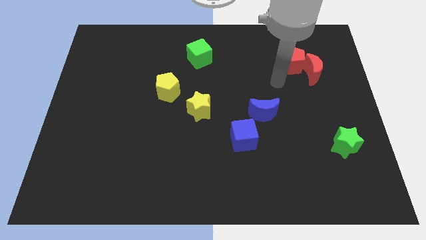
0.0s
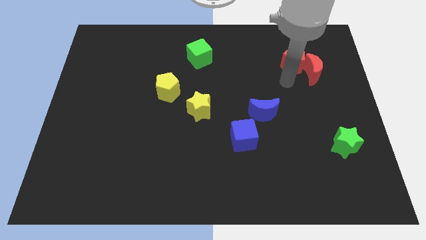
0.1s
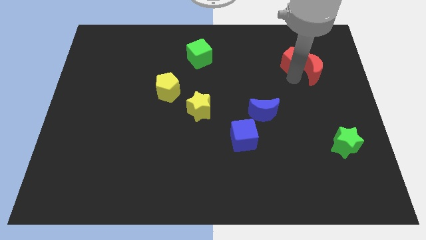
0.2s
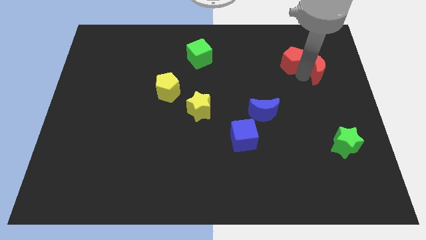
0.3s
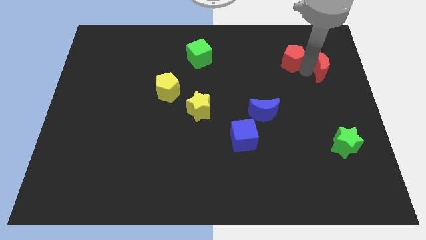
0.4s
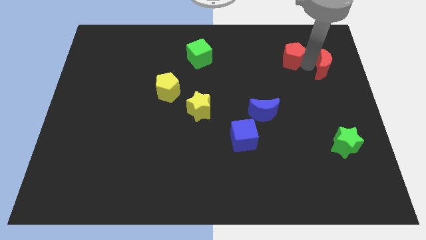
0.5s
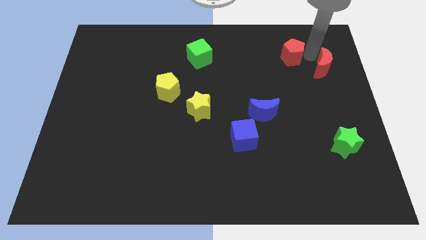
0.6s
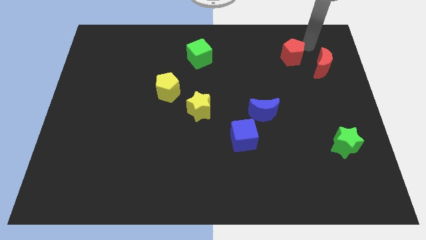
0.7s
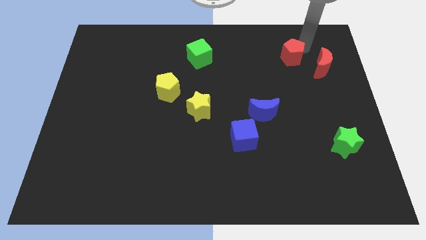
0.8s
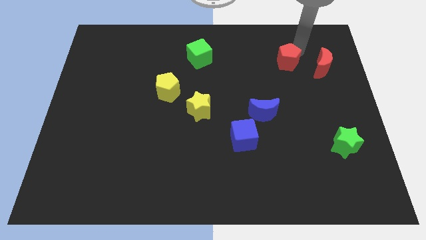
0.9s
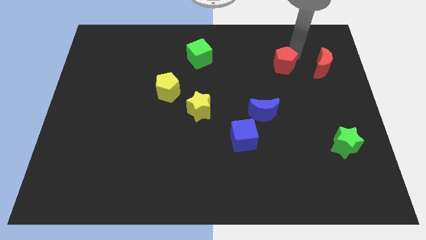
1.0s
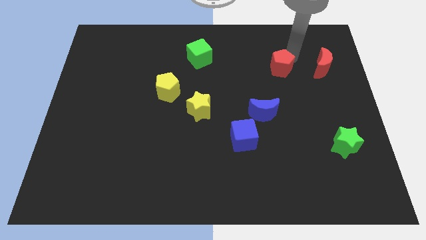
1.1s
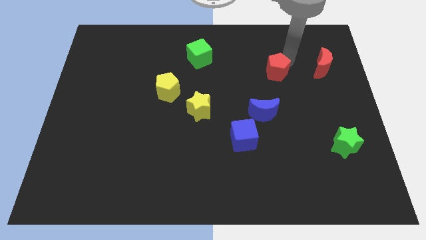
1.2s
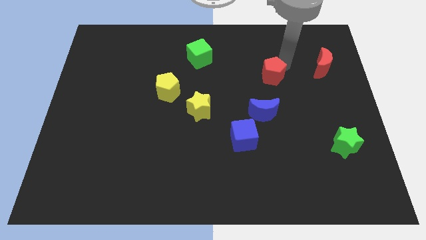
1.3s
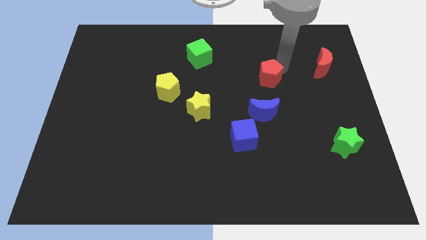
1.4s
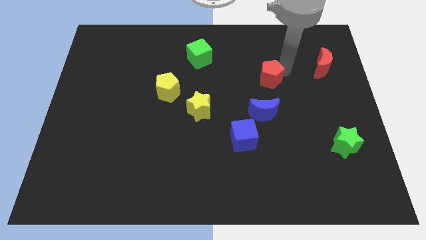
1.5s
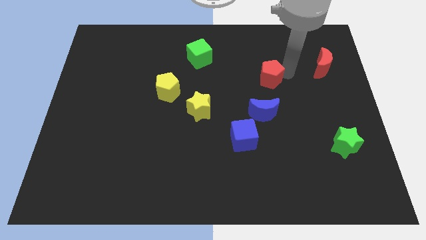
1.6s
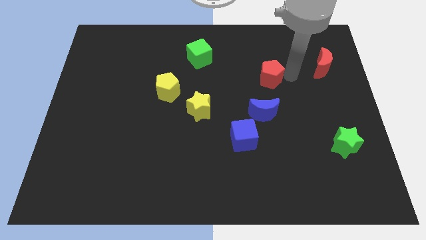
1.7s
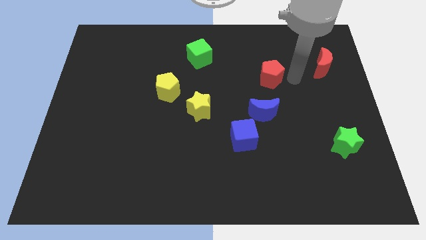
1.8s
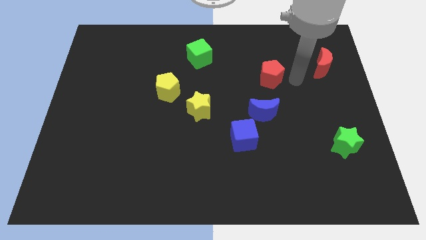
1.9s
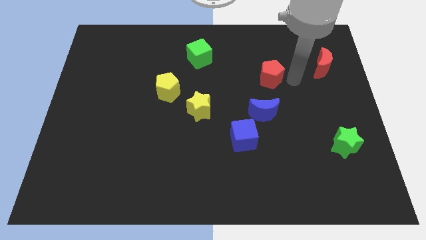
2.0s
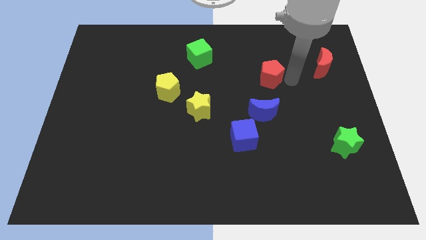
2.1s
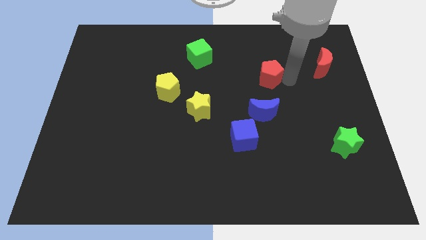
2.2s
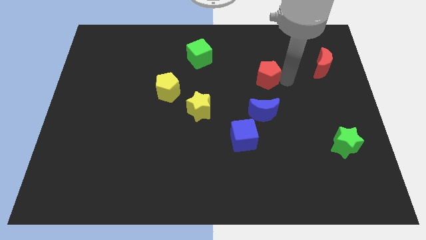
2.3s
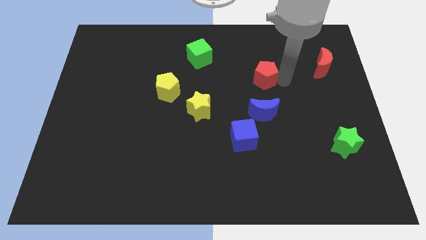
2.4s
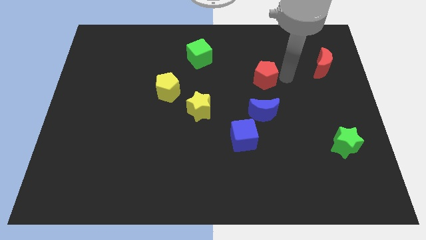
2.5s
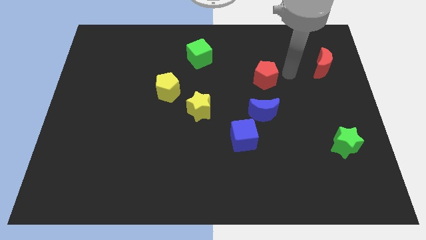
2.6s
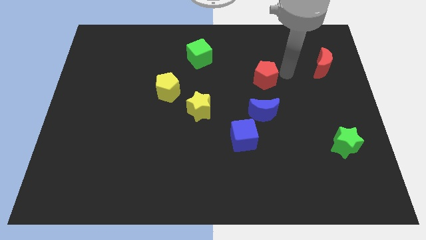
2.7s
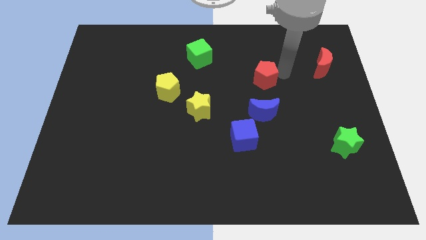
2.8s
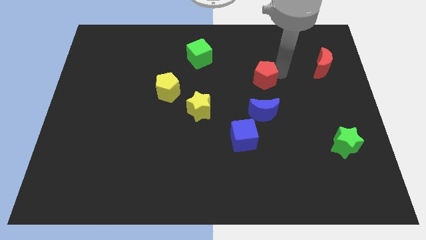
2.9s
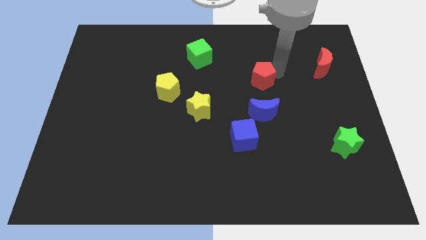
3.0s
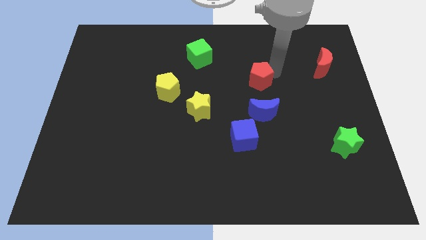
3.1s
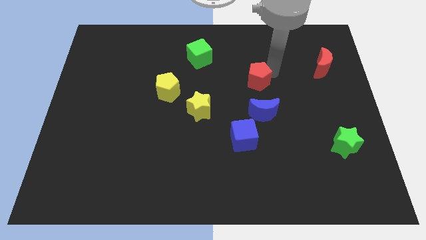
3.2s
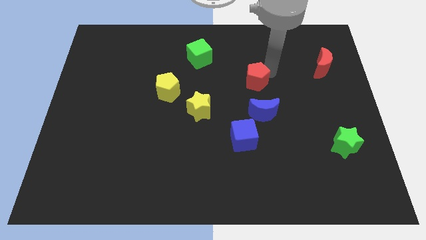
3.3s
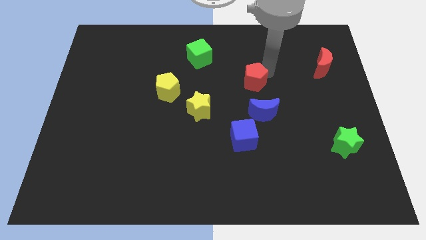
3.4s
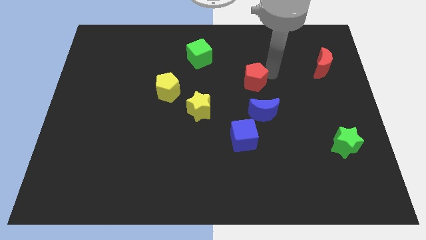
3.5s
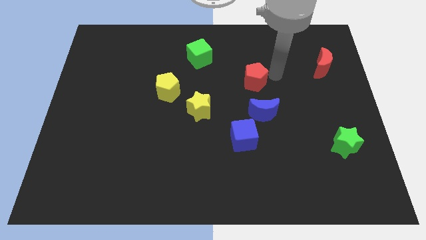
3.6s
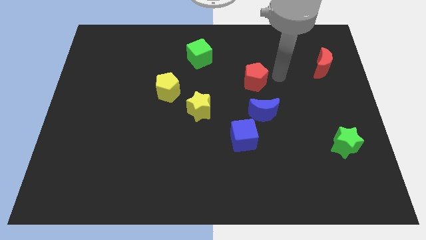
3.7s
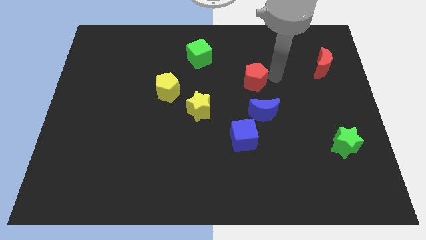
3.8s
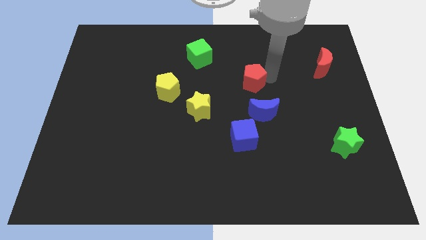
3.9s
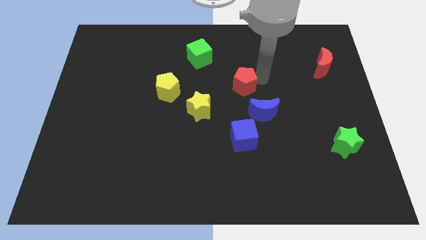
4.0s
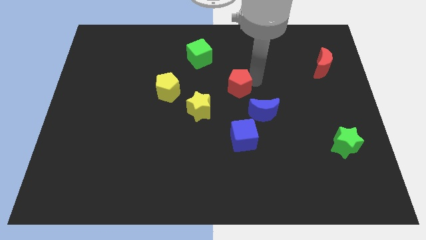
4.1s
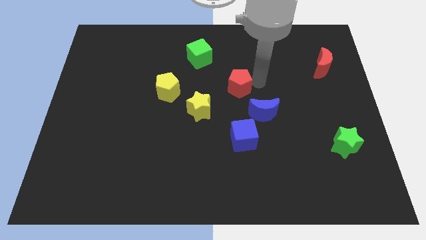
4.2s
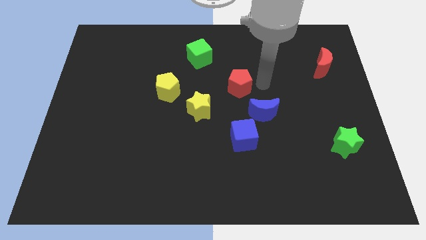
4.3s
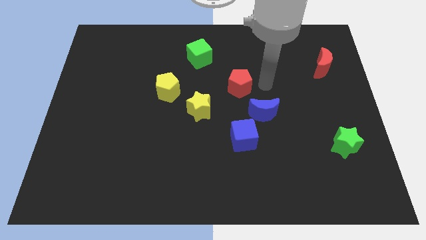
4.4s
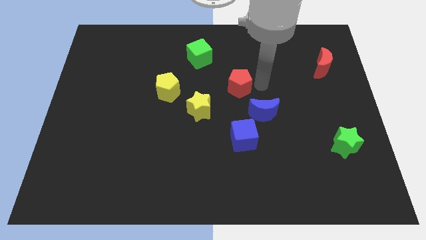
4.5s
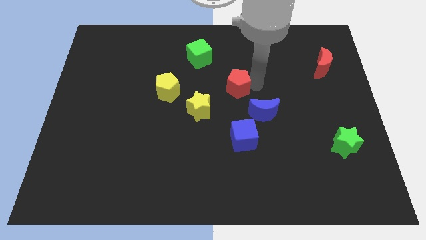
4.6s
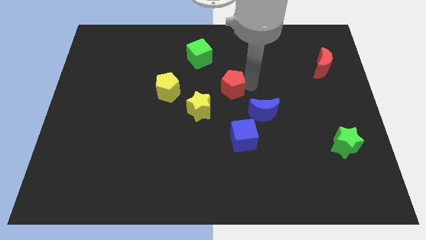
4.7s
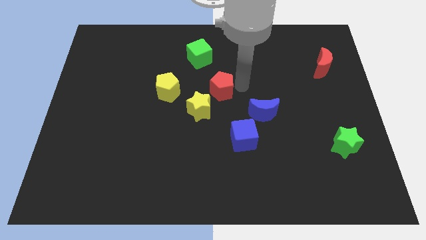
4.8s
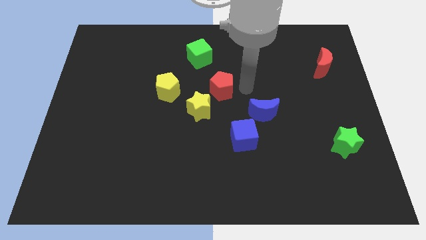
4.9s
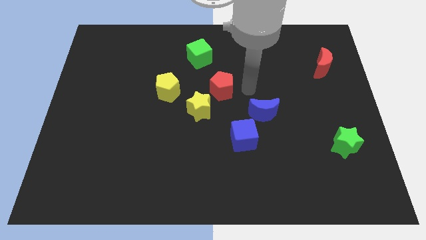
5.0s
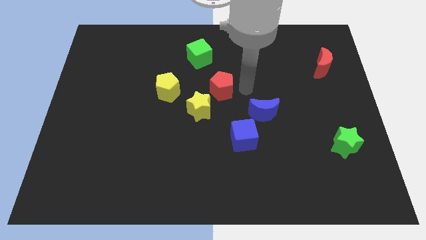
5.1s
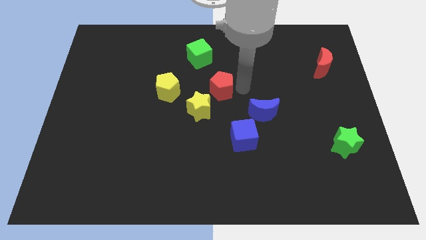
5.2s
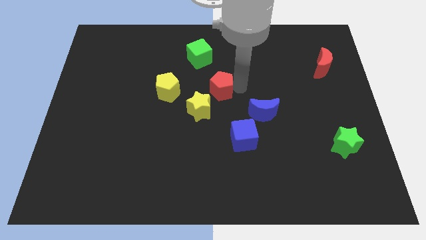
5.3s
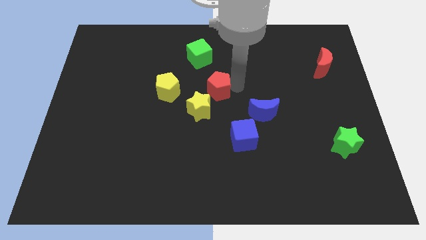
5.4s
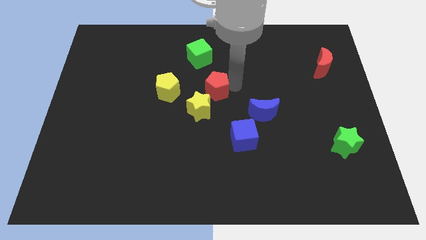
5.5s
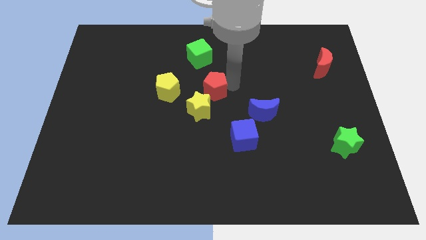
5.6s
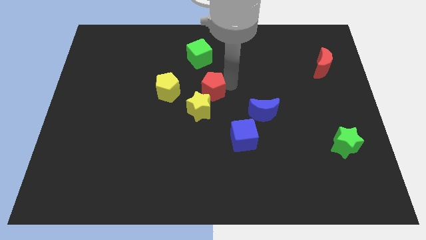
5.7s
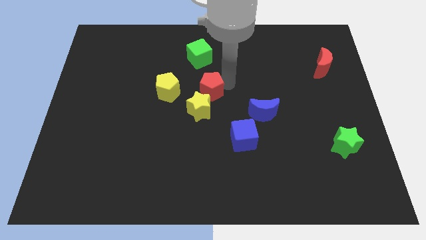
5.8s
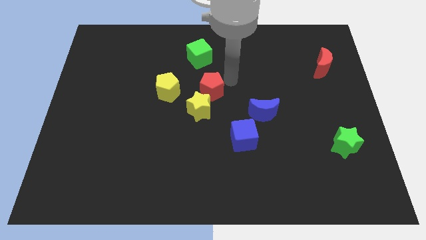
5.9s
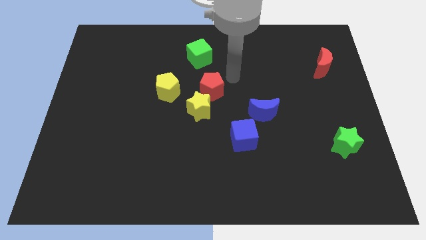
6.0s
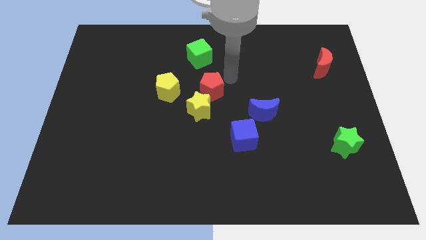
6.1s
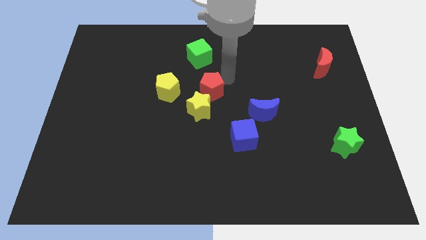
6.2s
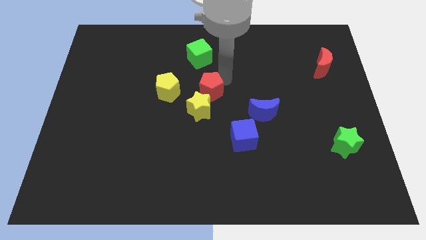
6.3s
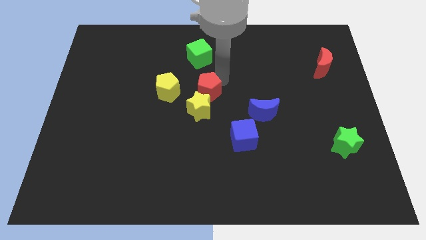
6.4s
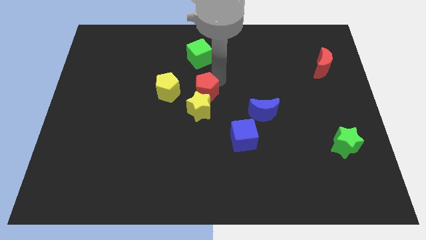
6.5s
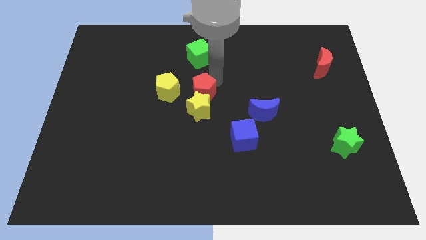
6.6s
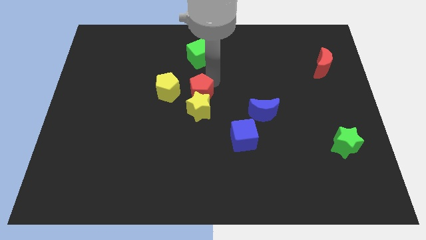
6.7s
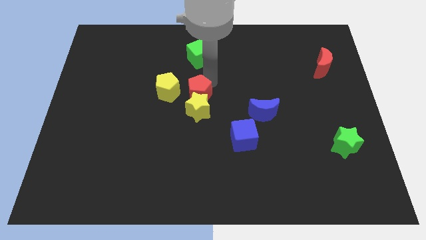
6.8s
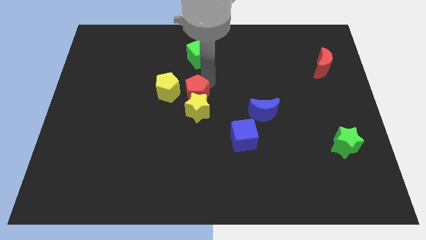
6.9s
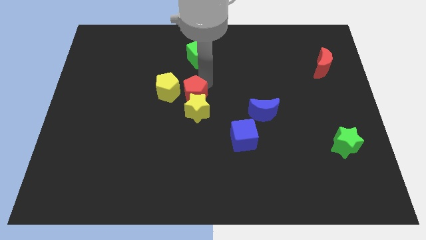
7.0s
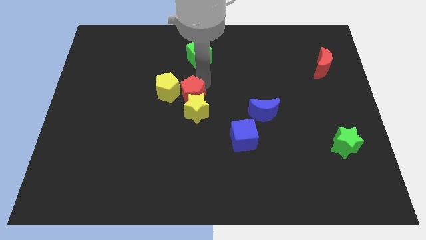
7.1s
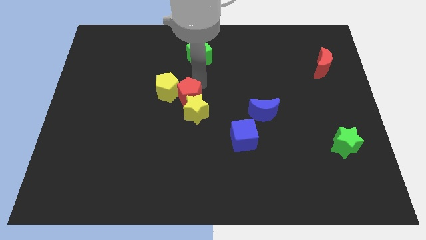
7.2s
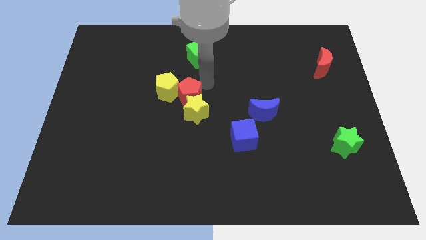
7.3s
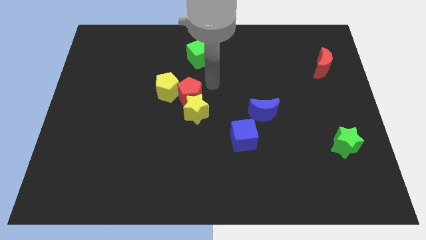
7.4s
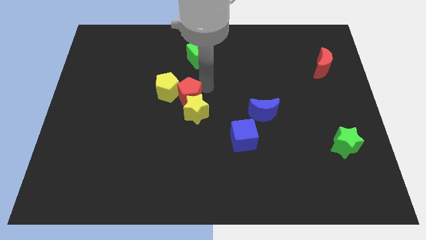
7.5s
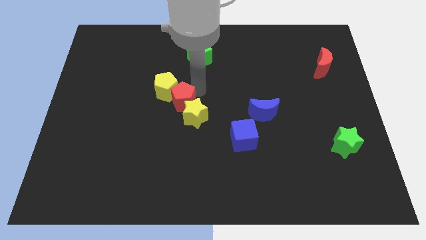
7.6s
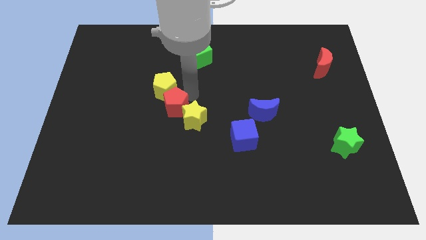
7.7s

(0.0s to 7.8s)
put the red pentagon left of the yellow star
